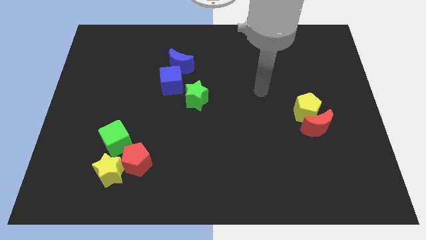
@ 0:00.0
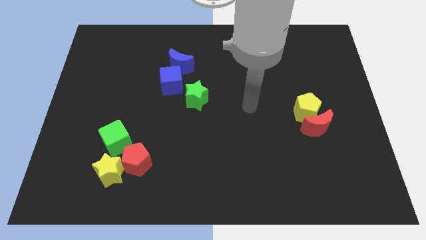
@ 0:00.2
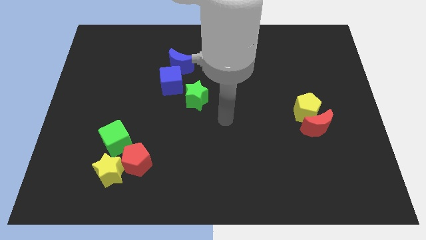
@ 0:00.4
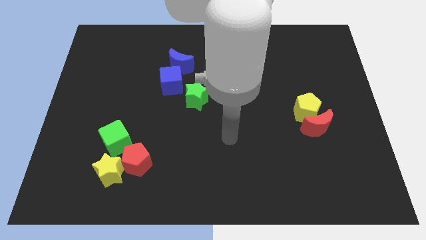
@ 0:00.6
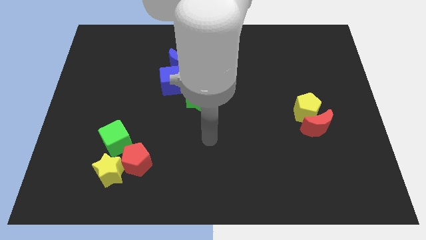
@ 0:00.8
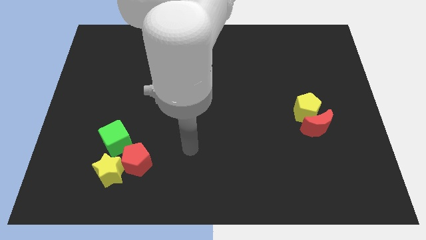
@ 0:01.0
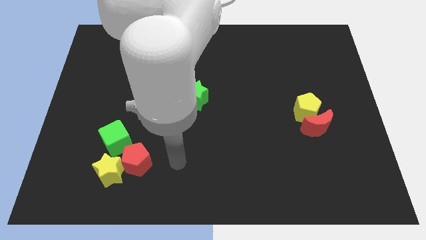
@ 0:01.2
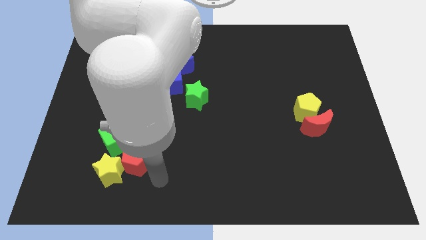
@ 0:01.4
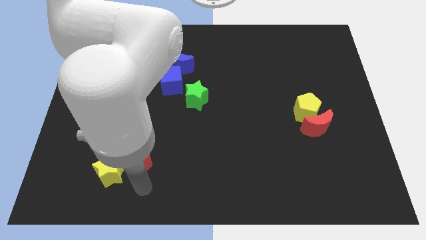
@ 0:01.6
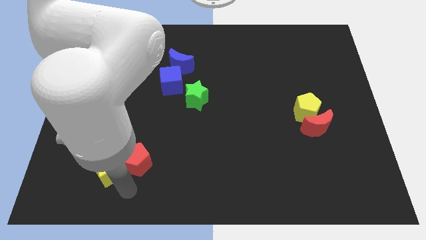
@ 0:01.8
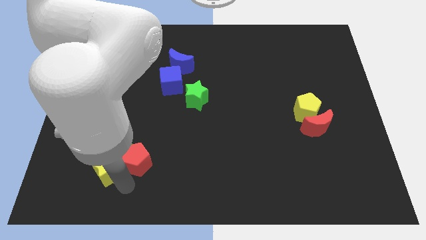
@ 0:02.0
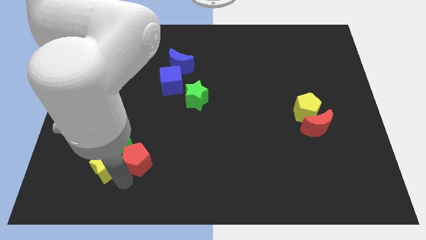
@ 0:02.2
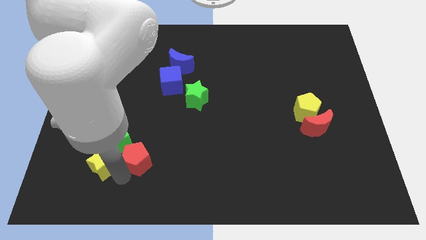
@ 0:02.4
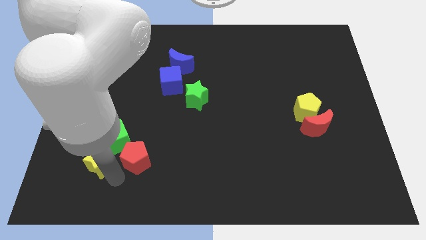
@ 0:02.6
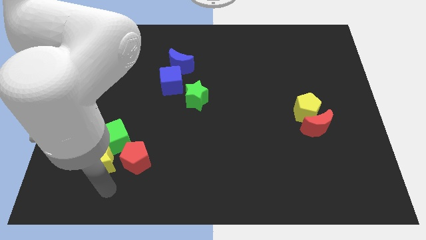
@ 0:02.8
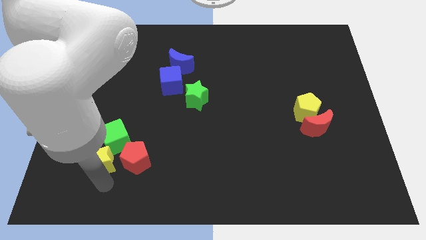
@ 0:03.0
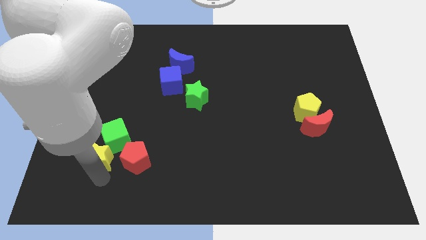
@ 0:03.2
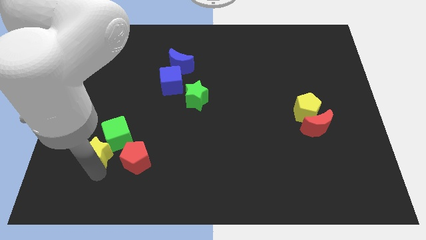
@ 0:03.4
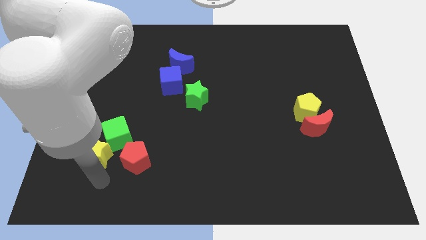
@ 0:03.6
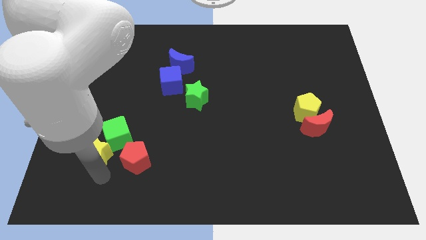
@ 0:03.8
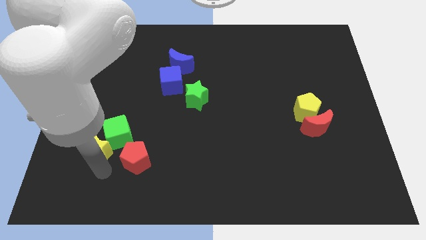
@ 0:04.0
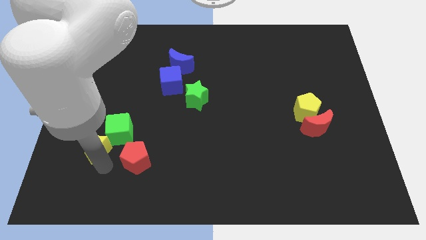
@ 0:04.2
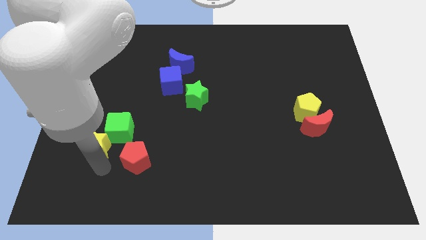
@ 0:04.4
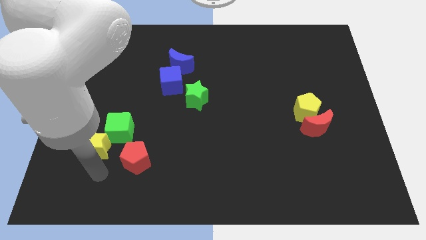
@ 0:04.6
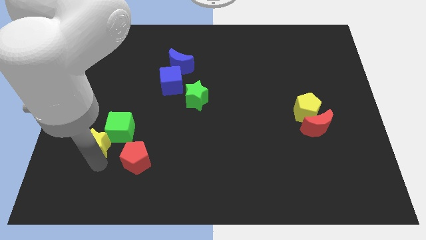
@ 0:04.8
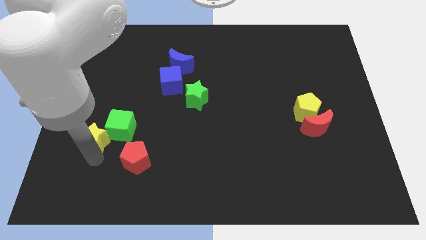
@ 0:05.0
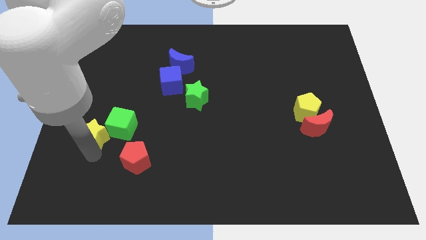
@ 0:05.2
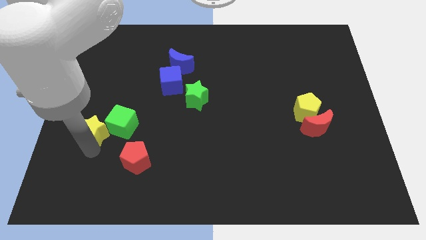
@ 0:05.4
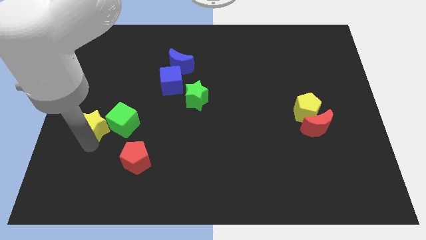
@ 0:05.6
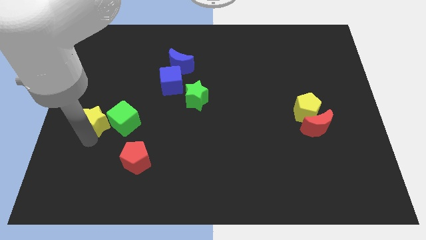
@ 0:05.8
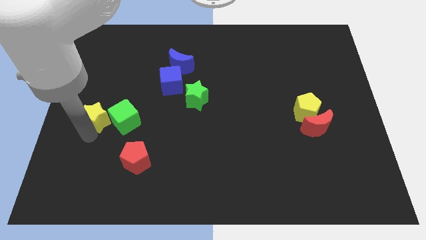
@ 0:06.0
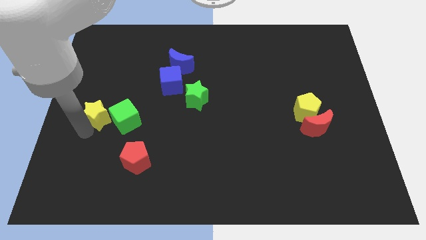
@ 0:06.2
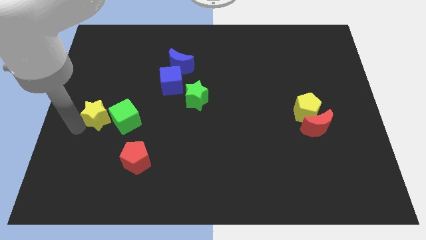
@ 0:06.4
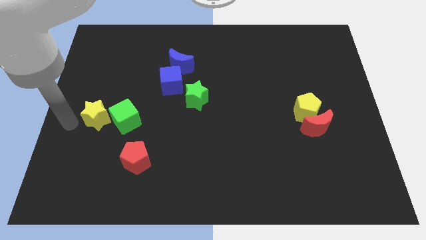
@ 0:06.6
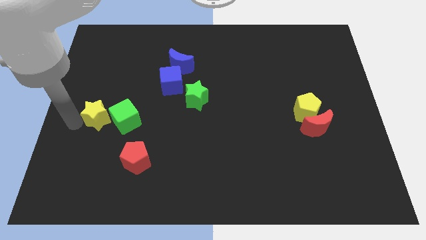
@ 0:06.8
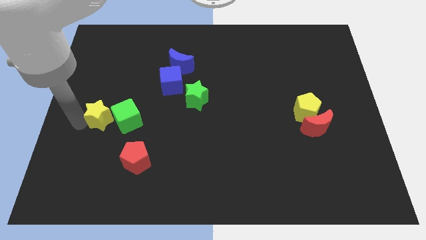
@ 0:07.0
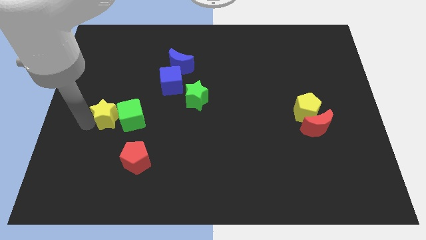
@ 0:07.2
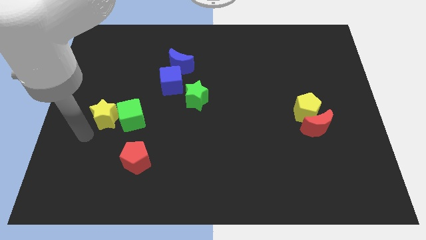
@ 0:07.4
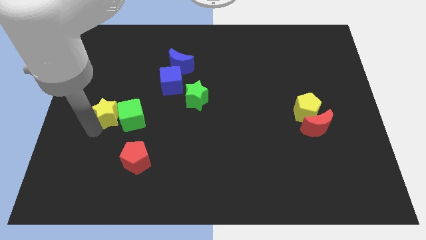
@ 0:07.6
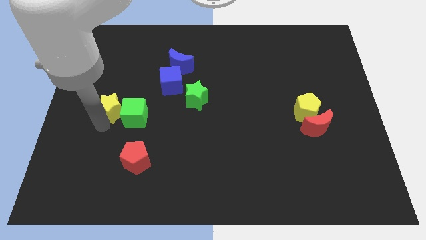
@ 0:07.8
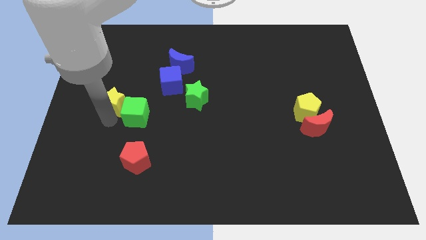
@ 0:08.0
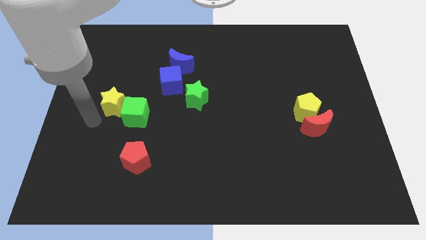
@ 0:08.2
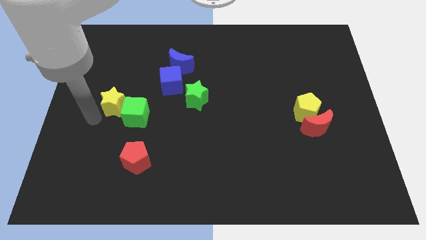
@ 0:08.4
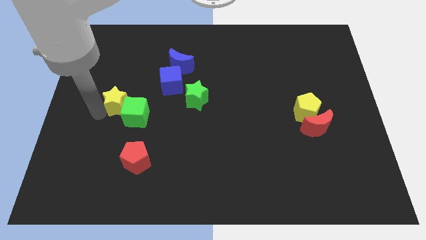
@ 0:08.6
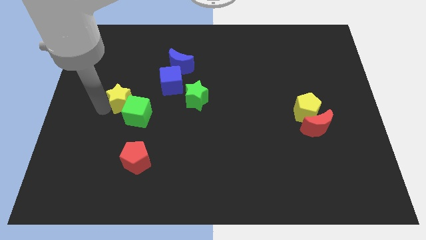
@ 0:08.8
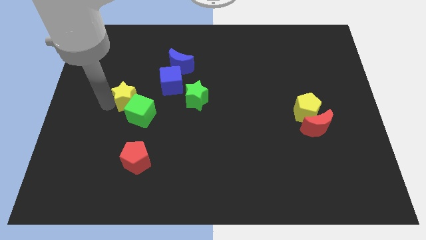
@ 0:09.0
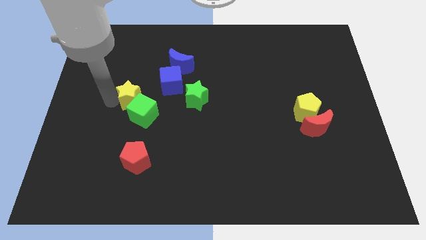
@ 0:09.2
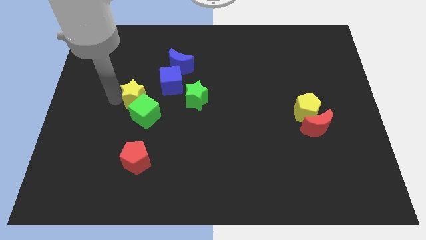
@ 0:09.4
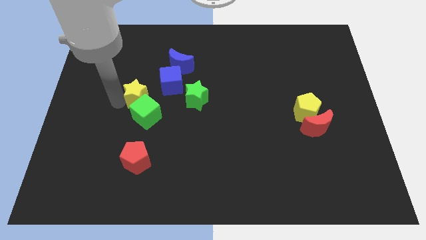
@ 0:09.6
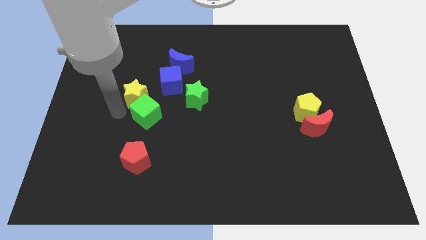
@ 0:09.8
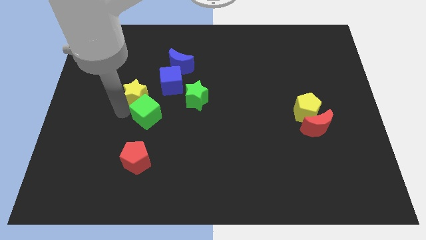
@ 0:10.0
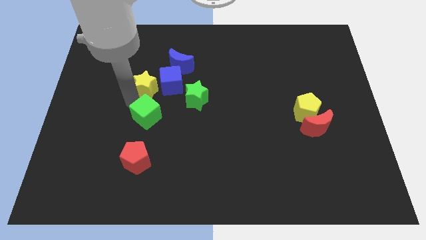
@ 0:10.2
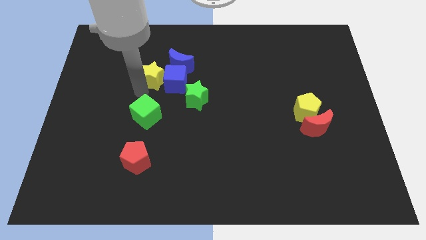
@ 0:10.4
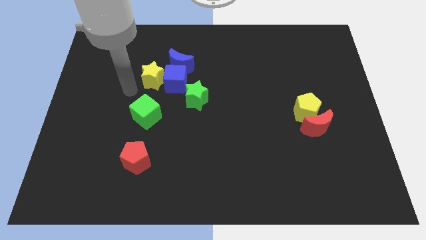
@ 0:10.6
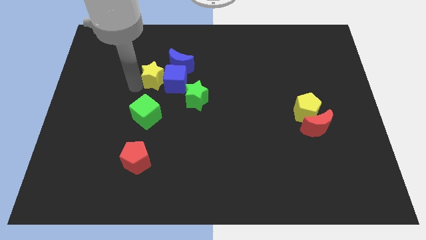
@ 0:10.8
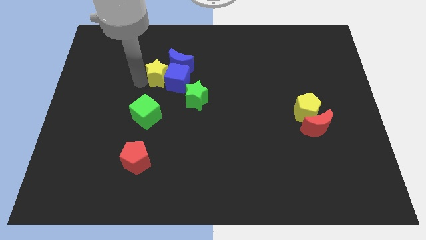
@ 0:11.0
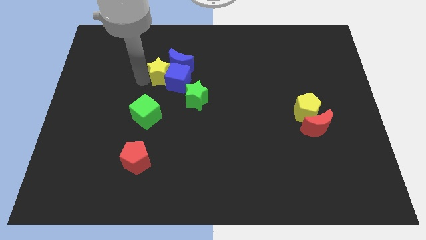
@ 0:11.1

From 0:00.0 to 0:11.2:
push the yellow star close to the blue moon

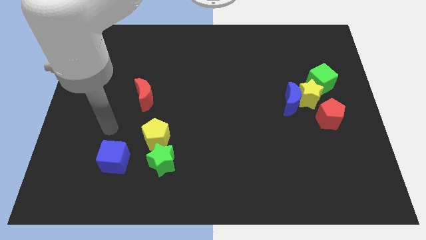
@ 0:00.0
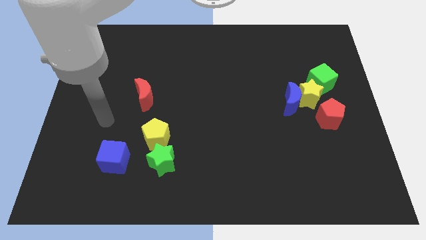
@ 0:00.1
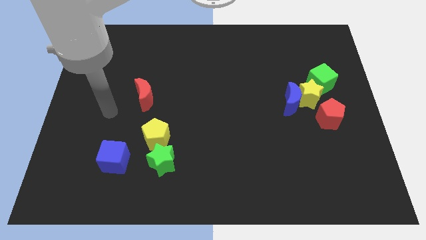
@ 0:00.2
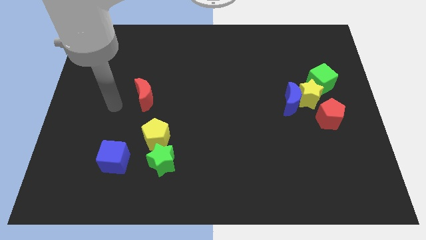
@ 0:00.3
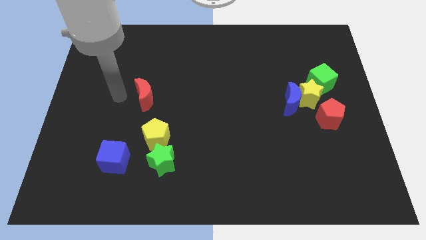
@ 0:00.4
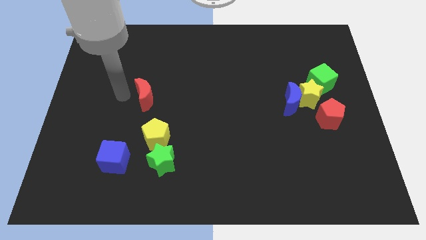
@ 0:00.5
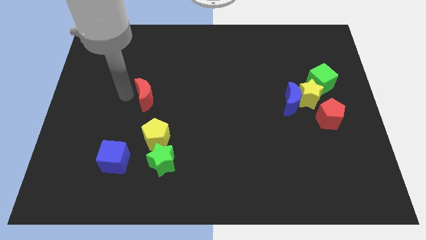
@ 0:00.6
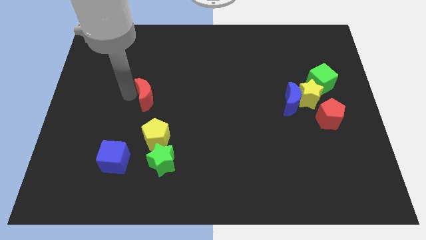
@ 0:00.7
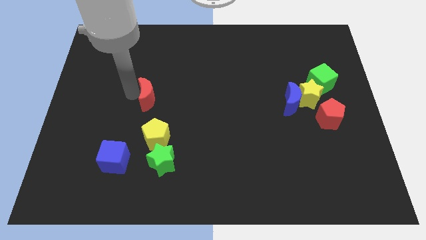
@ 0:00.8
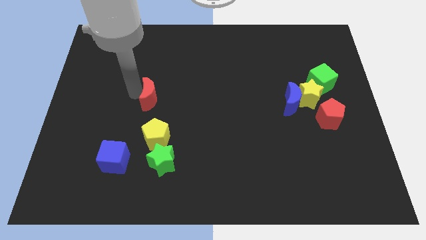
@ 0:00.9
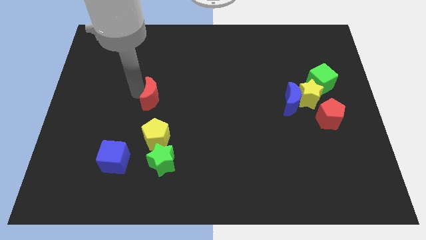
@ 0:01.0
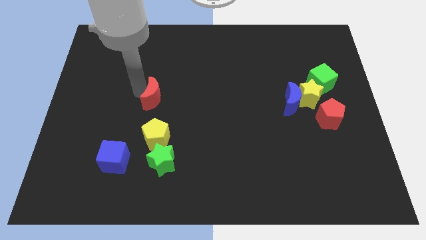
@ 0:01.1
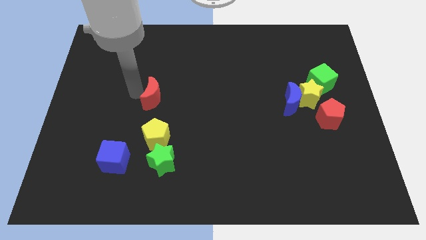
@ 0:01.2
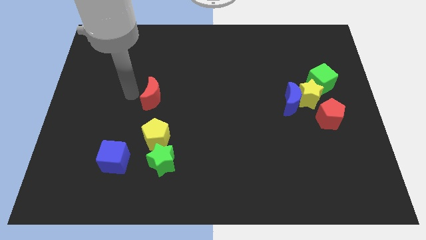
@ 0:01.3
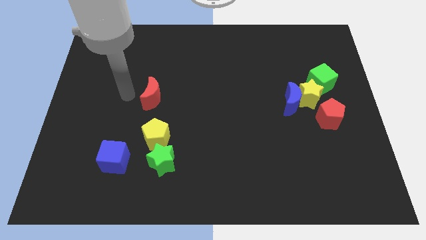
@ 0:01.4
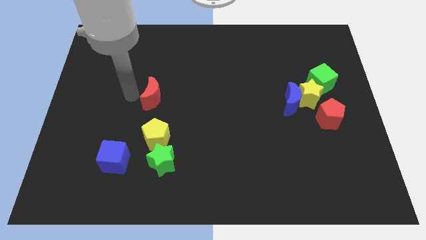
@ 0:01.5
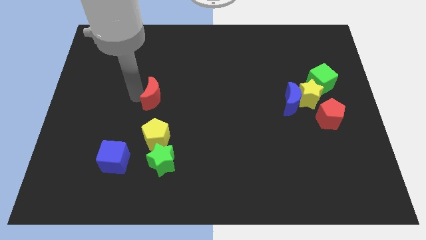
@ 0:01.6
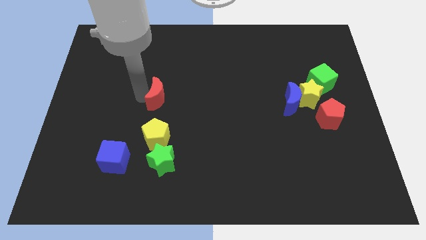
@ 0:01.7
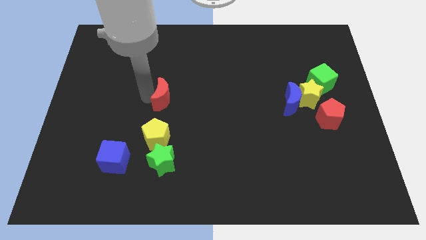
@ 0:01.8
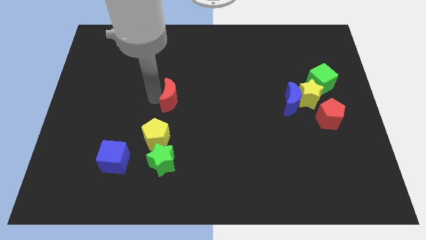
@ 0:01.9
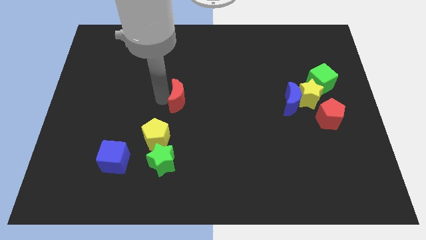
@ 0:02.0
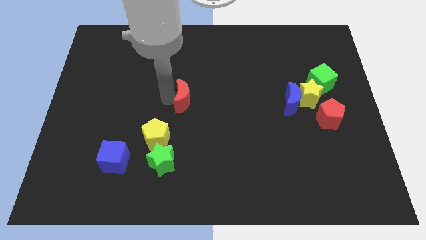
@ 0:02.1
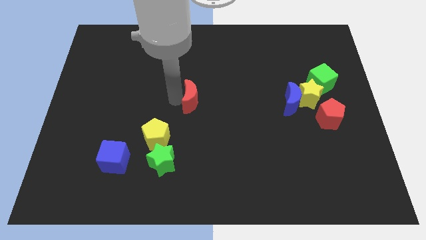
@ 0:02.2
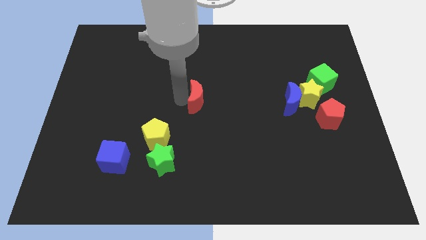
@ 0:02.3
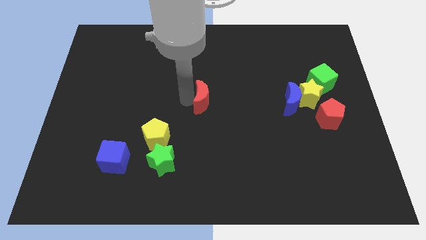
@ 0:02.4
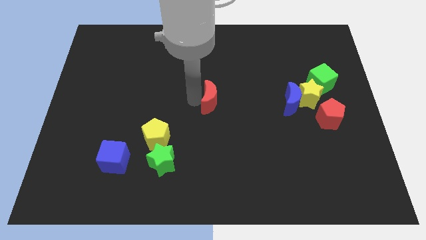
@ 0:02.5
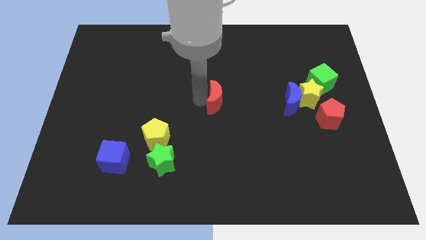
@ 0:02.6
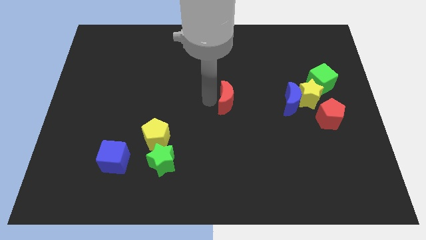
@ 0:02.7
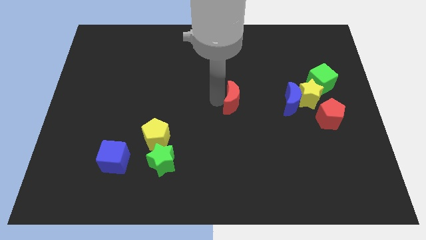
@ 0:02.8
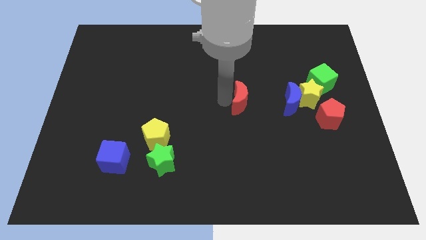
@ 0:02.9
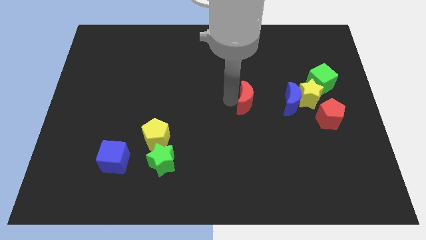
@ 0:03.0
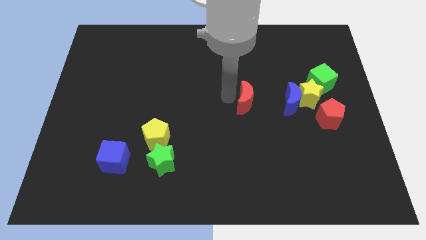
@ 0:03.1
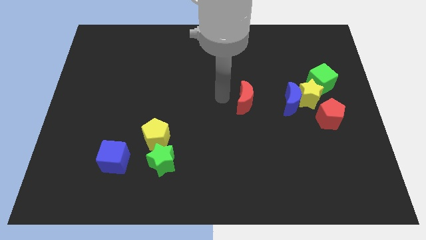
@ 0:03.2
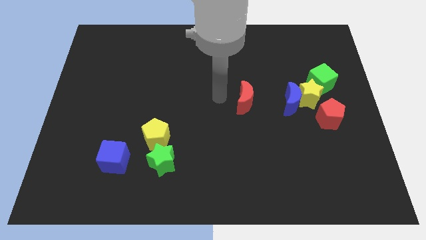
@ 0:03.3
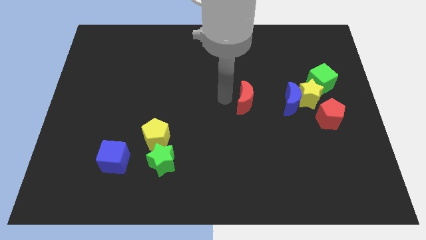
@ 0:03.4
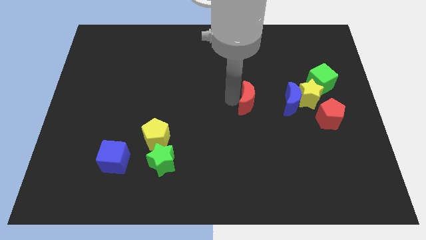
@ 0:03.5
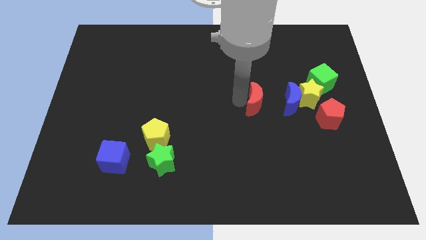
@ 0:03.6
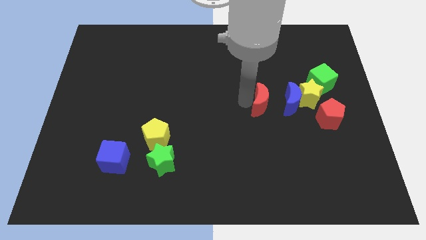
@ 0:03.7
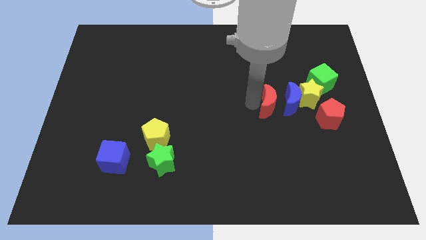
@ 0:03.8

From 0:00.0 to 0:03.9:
slide the red moon to the blue moon
